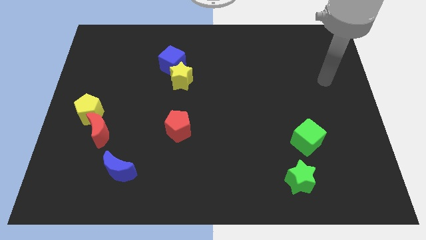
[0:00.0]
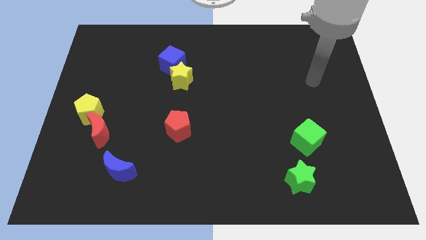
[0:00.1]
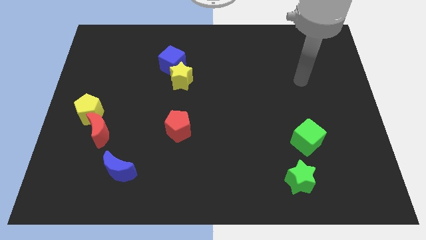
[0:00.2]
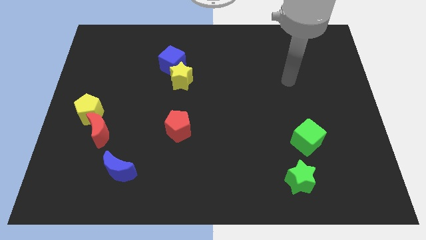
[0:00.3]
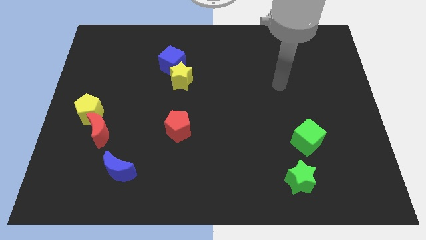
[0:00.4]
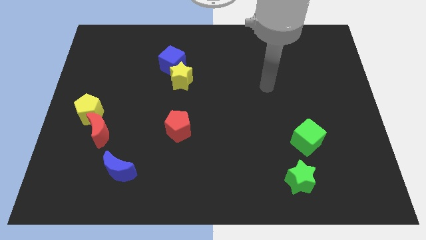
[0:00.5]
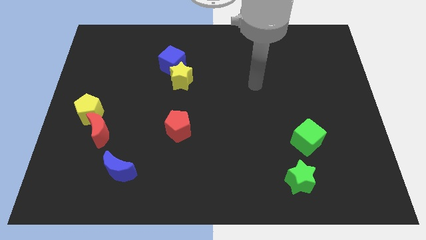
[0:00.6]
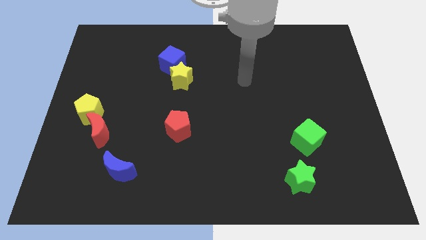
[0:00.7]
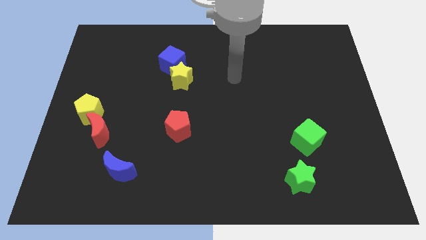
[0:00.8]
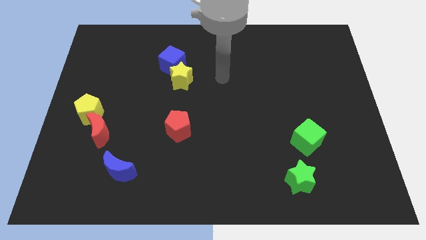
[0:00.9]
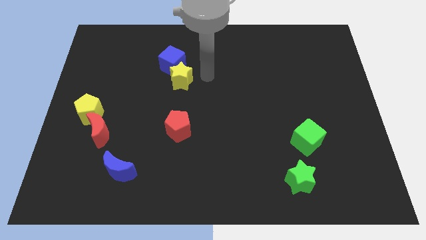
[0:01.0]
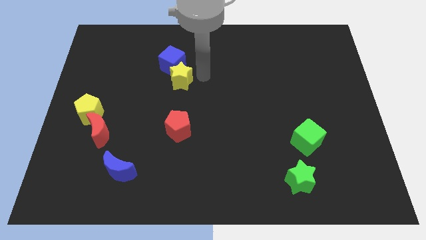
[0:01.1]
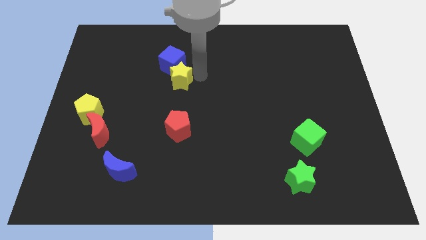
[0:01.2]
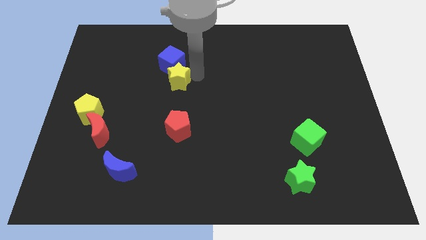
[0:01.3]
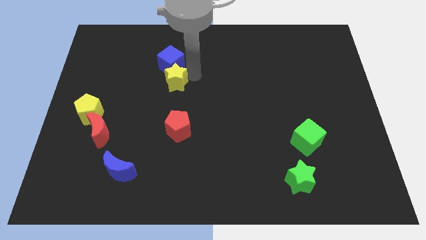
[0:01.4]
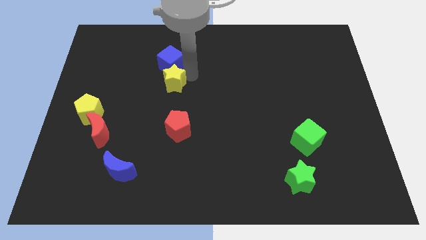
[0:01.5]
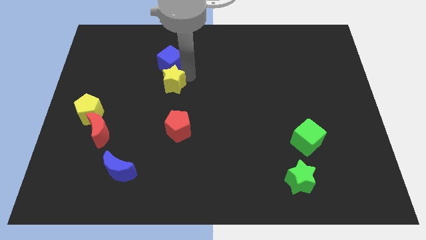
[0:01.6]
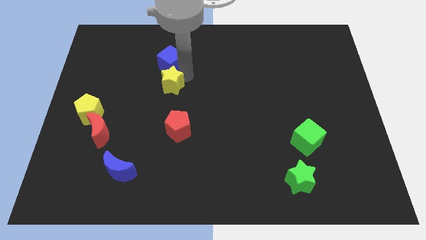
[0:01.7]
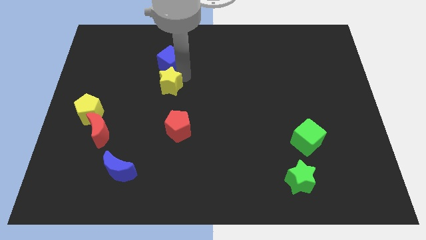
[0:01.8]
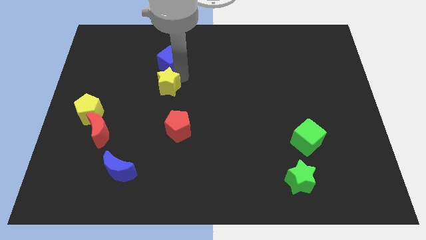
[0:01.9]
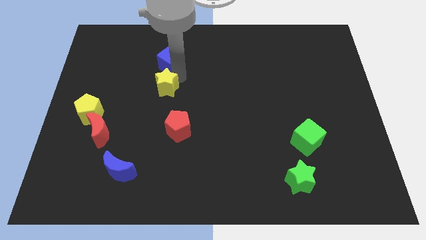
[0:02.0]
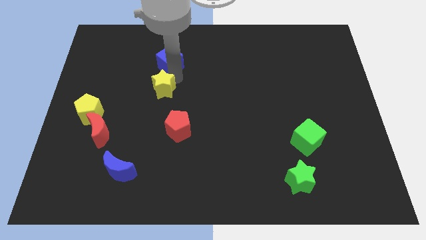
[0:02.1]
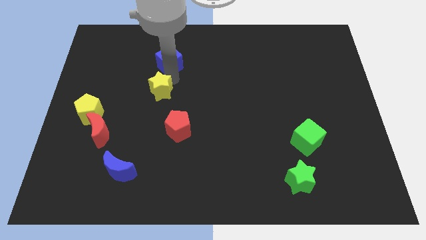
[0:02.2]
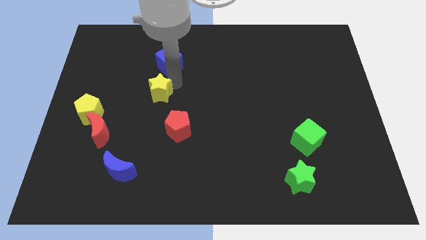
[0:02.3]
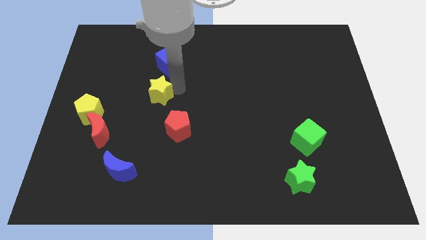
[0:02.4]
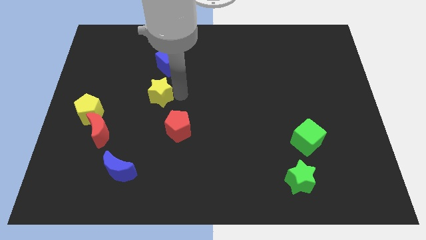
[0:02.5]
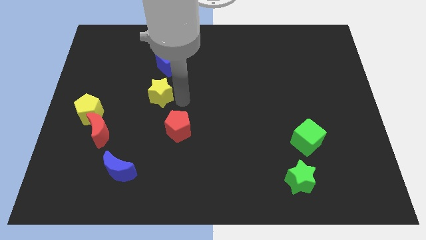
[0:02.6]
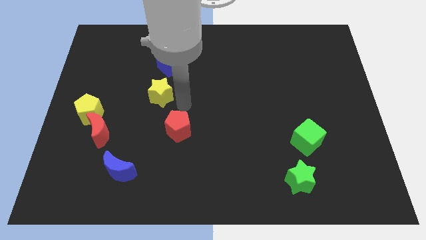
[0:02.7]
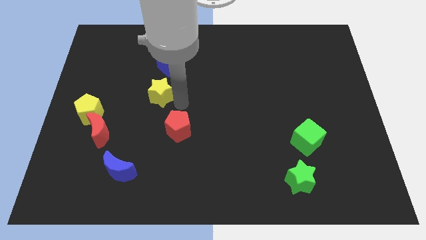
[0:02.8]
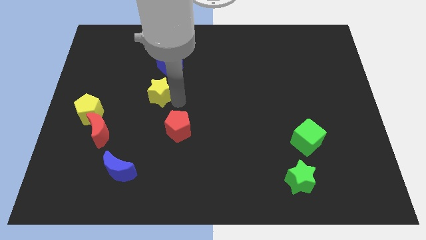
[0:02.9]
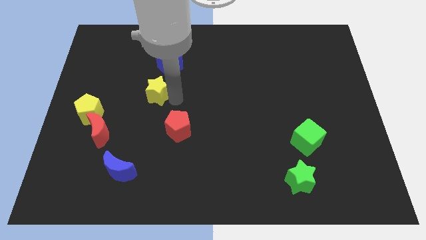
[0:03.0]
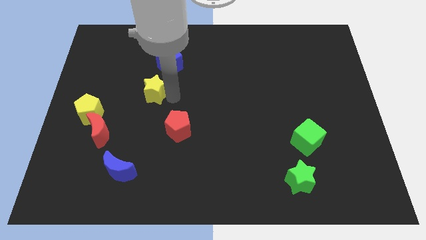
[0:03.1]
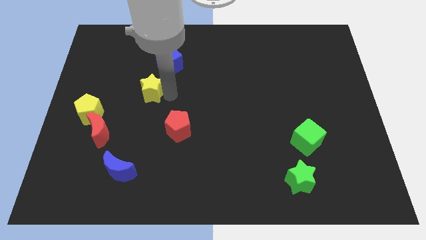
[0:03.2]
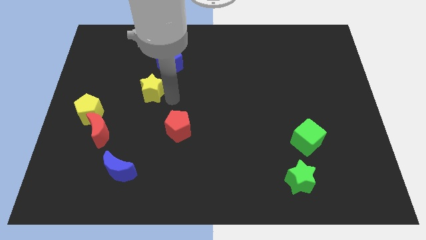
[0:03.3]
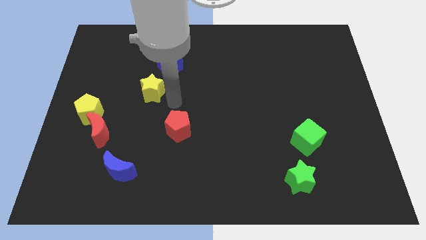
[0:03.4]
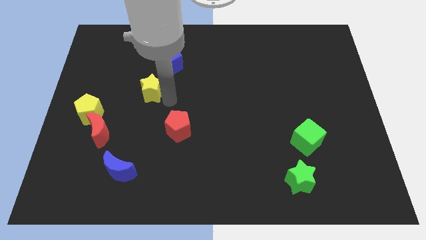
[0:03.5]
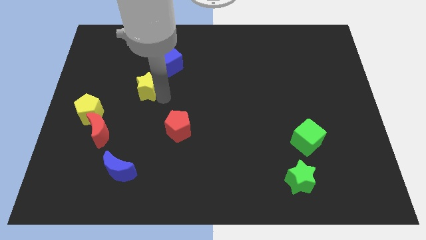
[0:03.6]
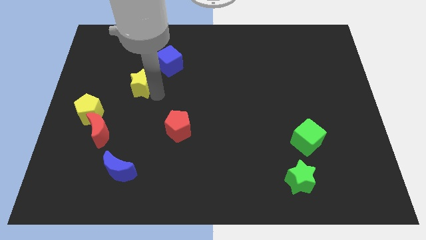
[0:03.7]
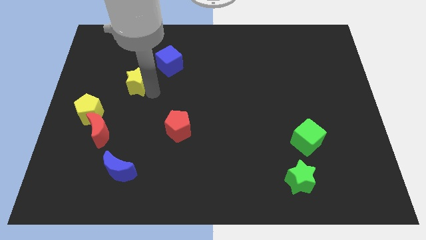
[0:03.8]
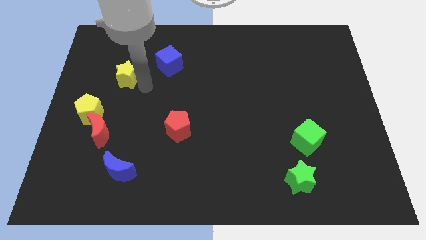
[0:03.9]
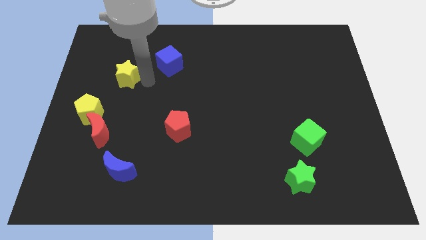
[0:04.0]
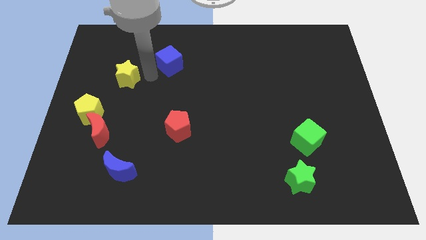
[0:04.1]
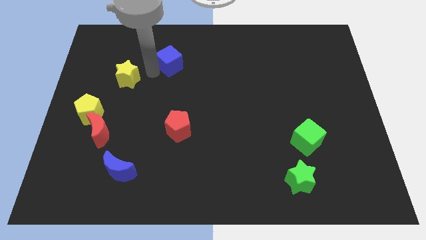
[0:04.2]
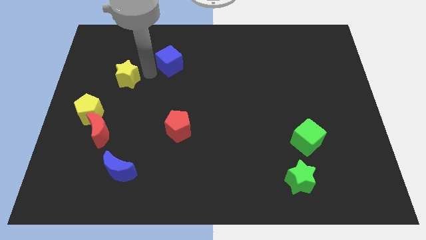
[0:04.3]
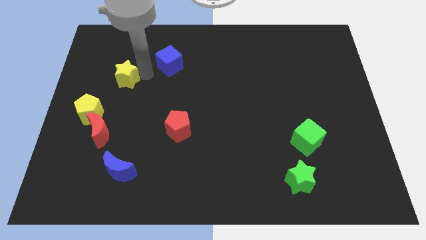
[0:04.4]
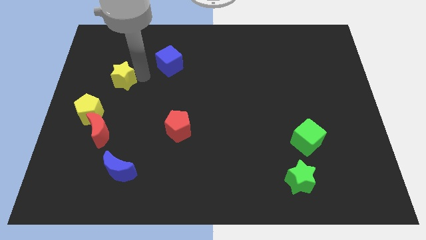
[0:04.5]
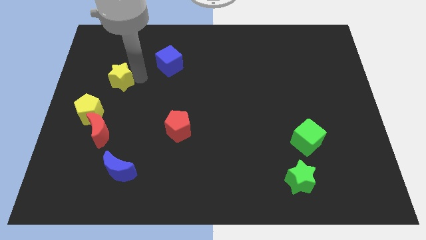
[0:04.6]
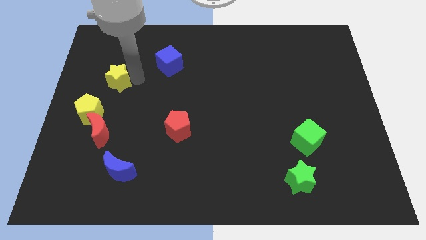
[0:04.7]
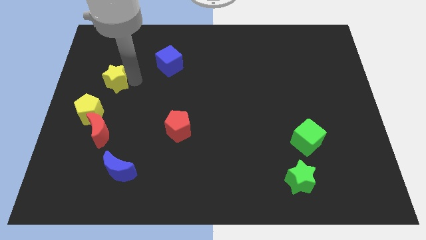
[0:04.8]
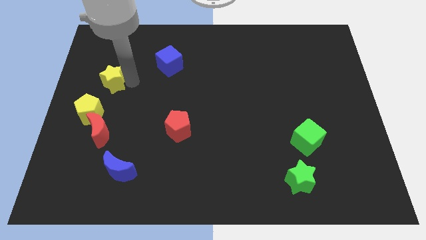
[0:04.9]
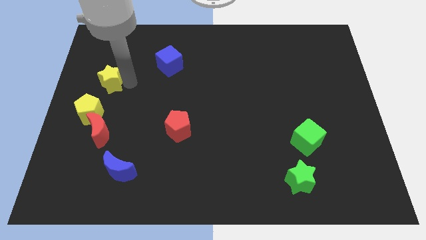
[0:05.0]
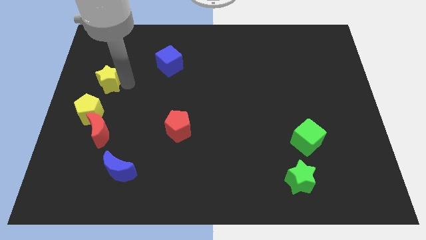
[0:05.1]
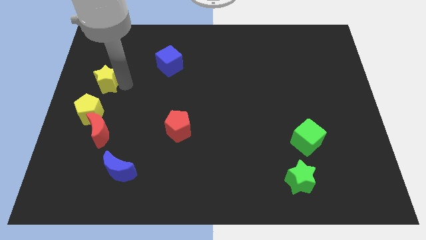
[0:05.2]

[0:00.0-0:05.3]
move the yellow star to the left side
